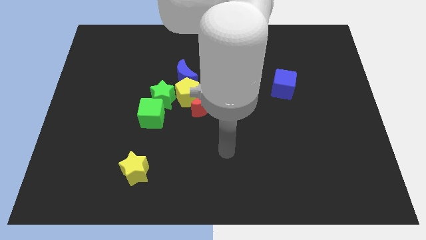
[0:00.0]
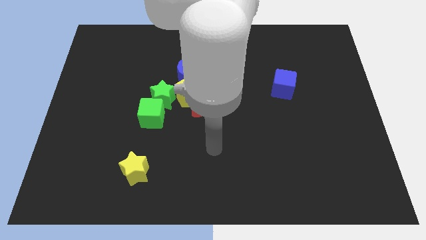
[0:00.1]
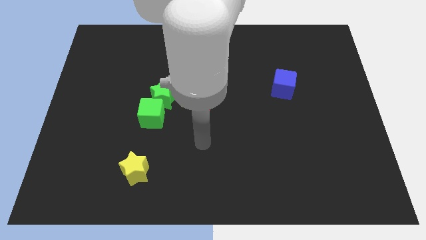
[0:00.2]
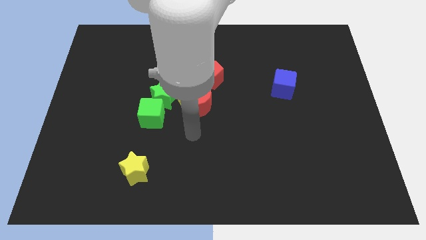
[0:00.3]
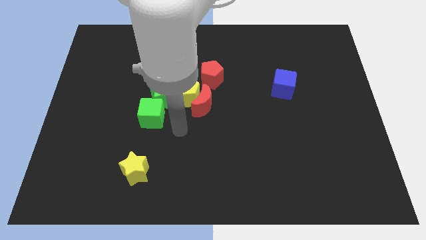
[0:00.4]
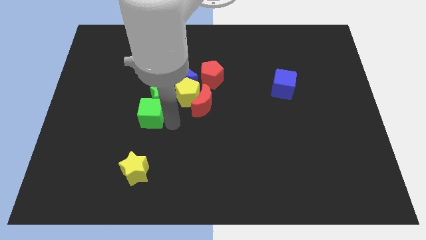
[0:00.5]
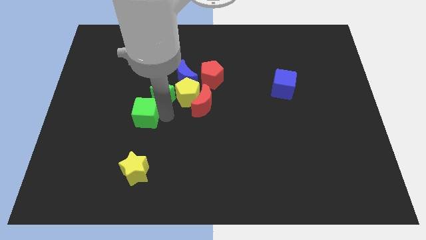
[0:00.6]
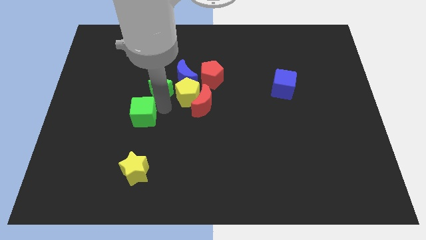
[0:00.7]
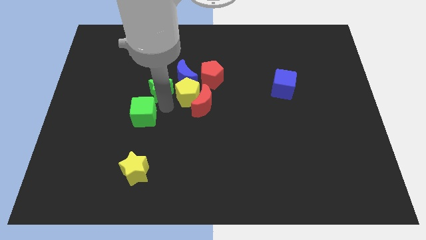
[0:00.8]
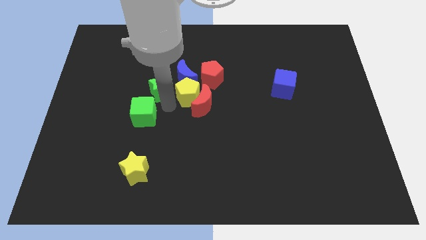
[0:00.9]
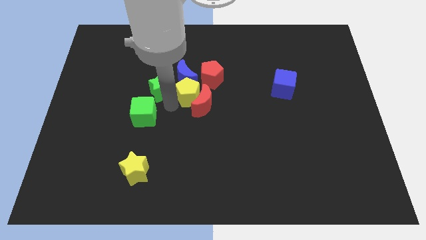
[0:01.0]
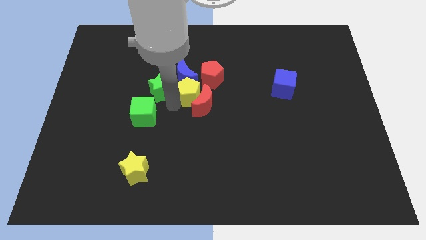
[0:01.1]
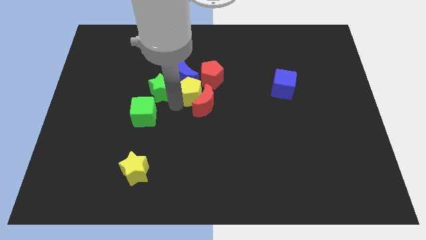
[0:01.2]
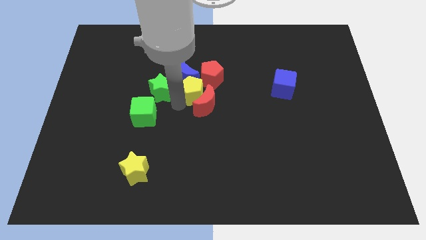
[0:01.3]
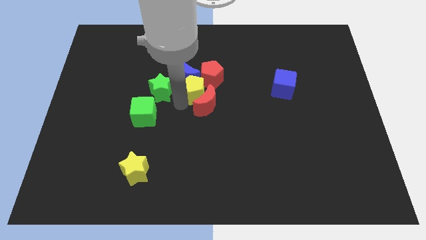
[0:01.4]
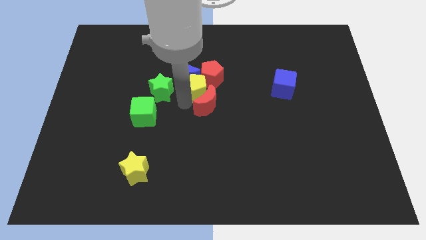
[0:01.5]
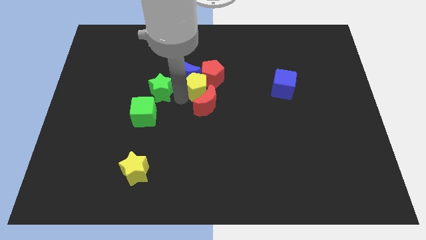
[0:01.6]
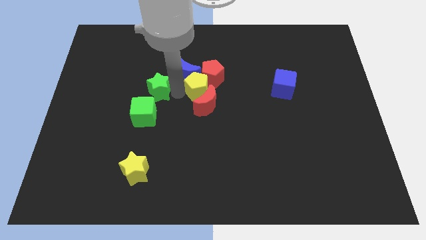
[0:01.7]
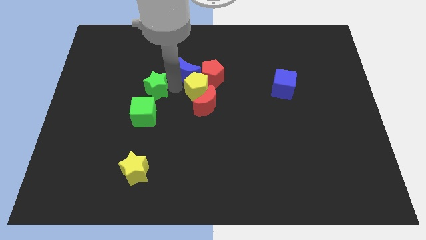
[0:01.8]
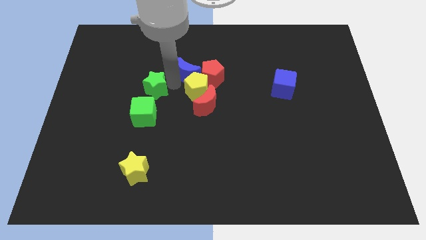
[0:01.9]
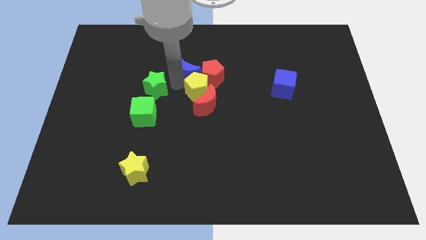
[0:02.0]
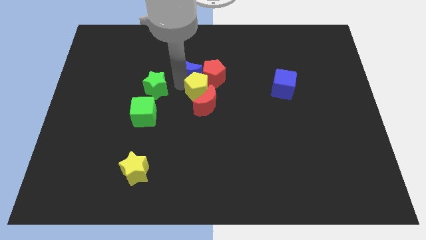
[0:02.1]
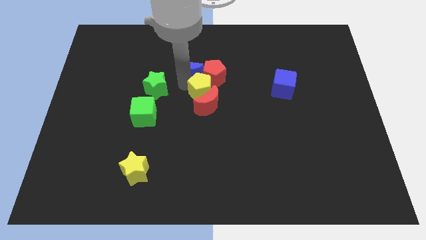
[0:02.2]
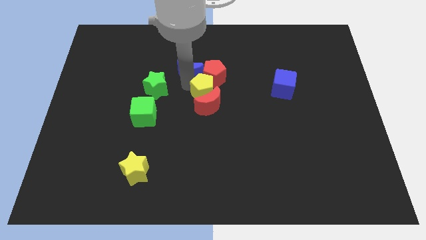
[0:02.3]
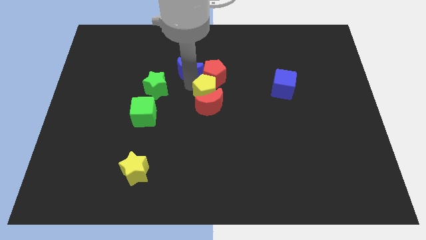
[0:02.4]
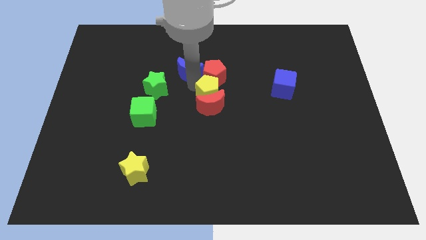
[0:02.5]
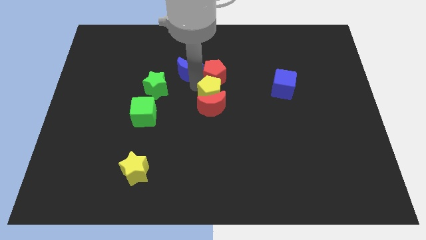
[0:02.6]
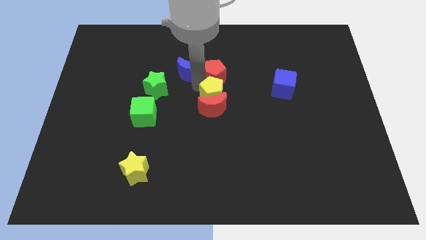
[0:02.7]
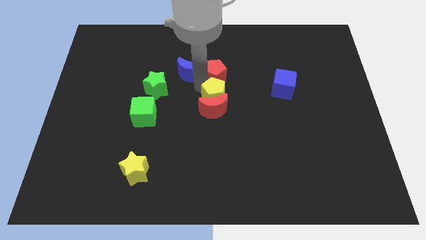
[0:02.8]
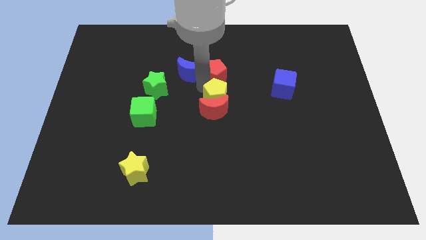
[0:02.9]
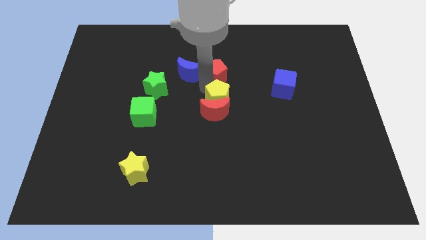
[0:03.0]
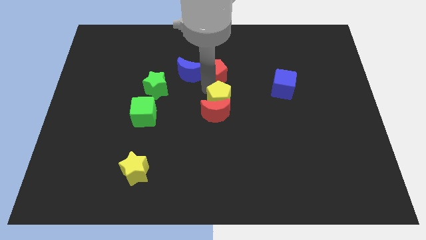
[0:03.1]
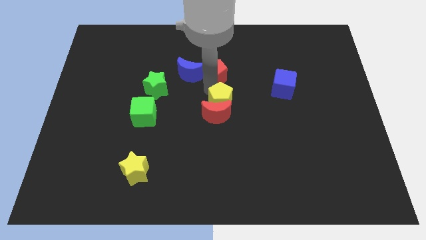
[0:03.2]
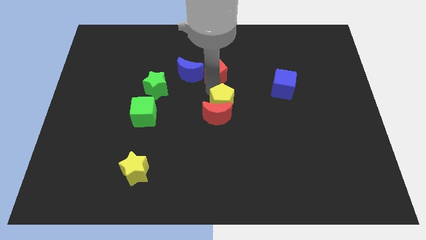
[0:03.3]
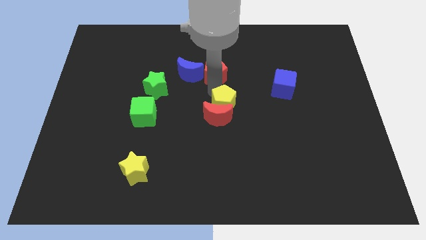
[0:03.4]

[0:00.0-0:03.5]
separate the yellow pentagon from the clump

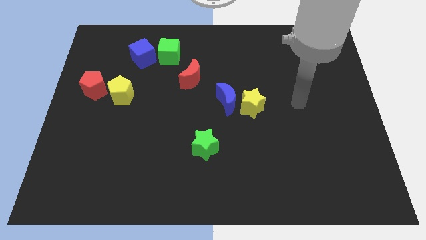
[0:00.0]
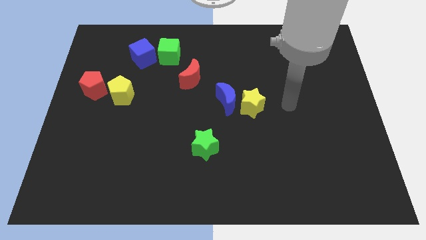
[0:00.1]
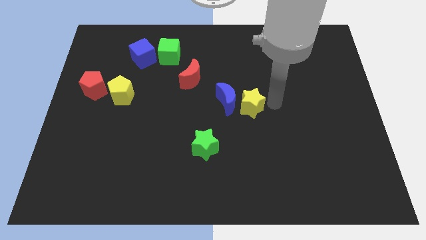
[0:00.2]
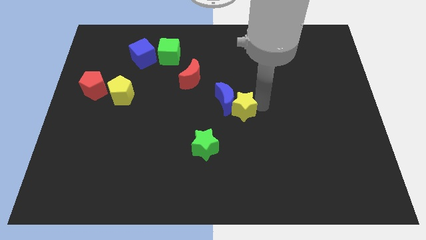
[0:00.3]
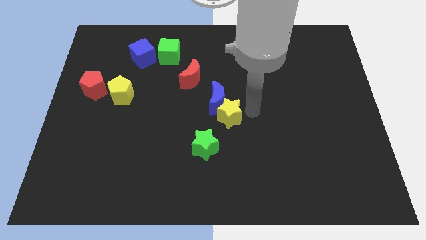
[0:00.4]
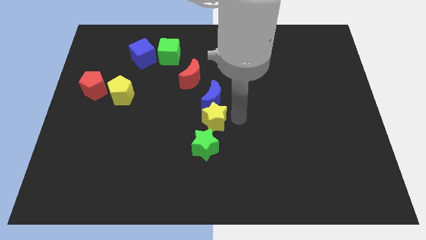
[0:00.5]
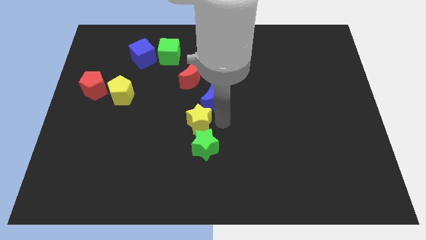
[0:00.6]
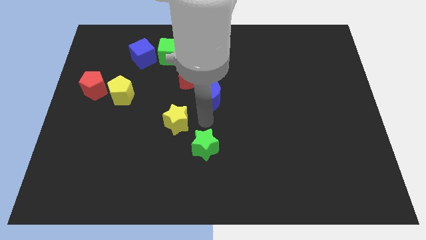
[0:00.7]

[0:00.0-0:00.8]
move the blue moon away from the yellow star

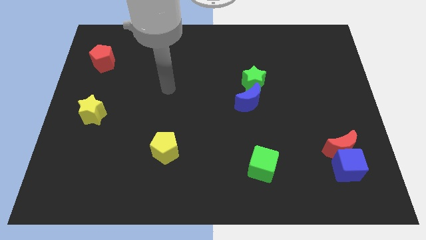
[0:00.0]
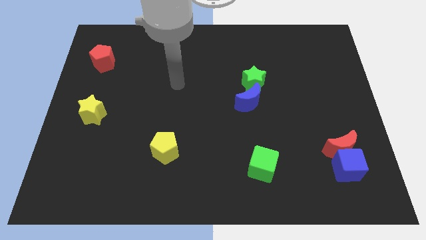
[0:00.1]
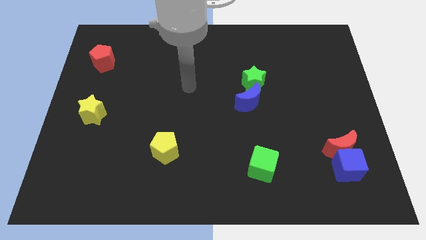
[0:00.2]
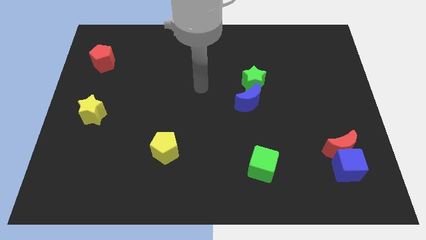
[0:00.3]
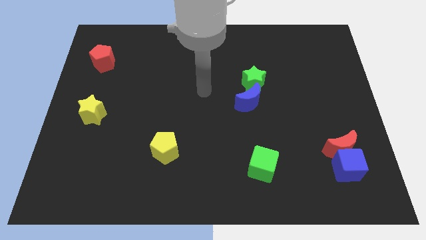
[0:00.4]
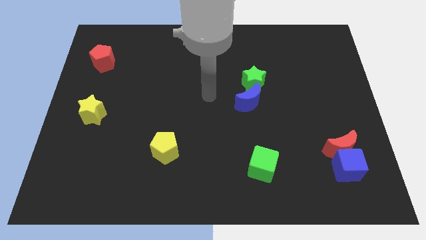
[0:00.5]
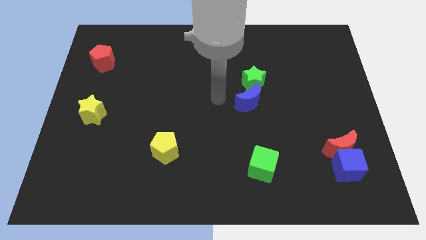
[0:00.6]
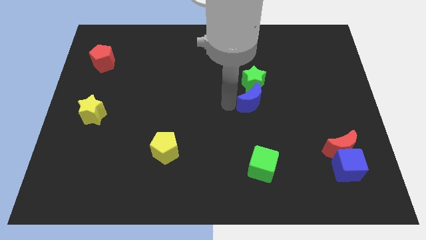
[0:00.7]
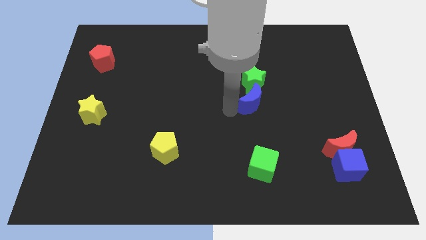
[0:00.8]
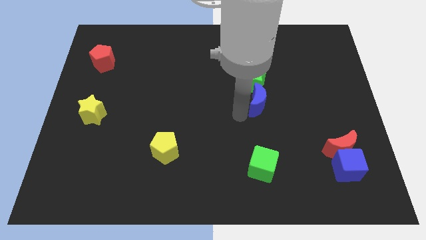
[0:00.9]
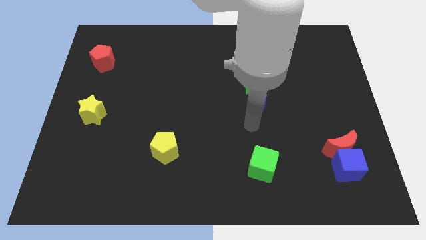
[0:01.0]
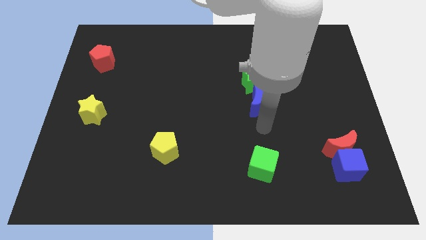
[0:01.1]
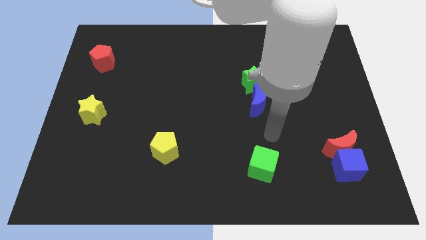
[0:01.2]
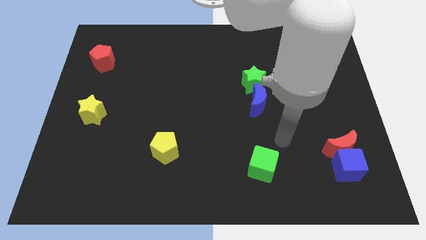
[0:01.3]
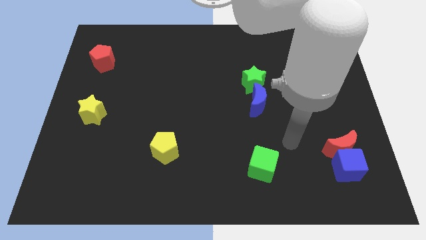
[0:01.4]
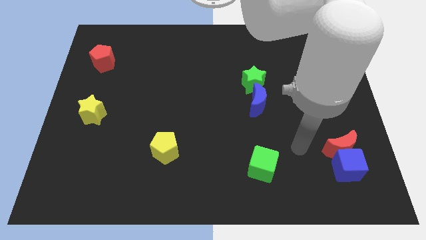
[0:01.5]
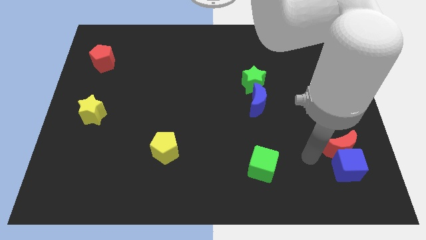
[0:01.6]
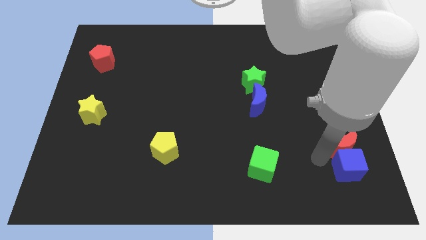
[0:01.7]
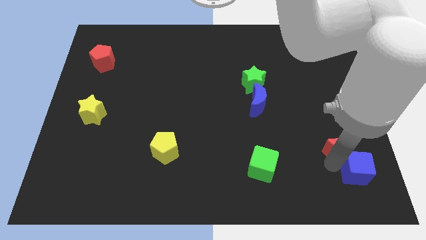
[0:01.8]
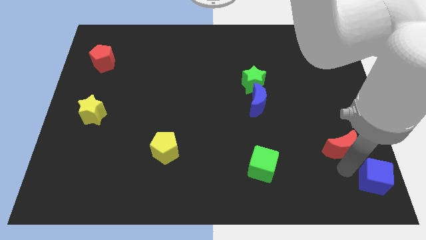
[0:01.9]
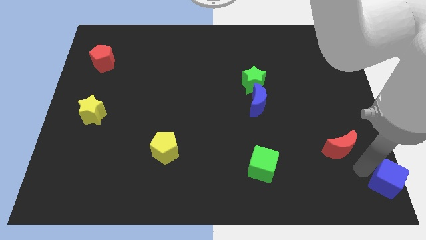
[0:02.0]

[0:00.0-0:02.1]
separate the red moon from the blue cube

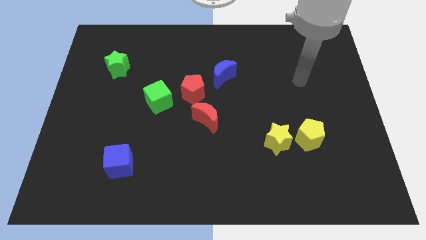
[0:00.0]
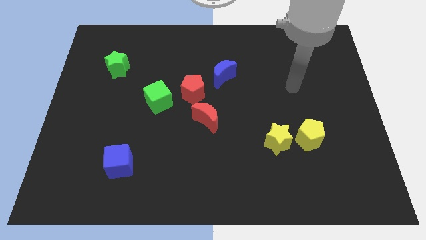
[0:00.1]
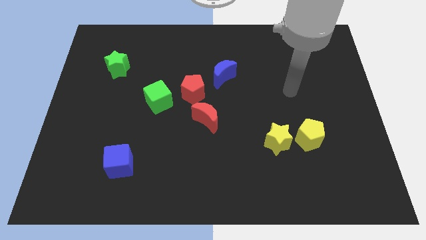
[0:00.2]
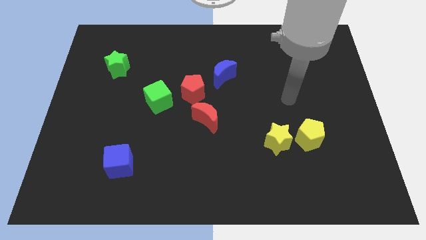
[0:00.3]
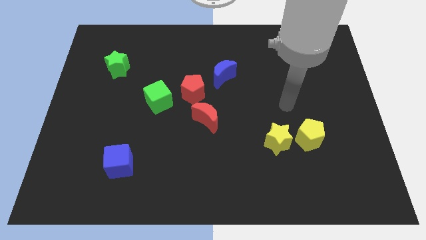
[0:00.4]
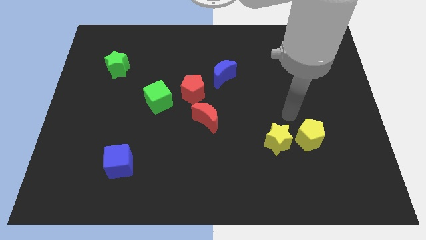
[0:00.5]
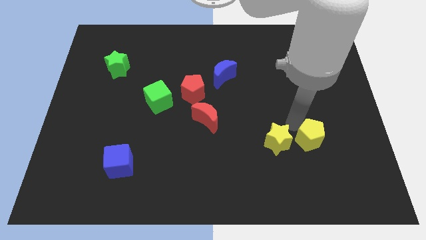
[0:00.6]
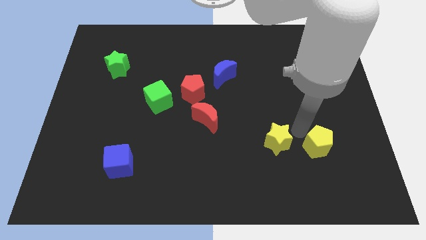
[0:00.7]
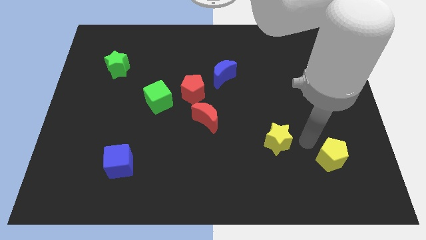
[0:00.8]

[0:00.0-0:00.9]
separate the yellow star from the yellow pentagon

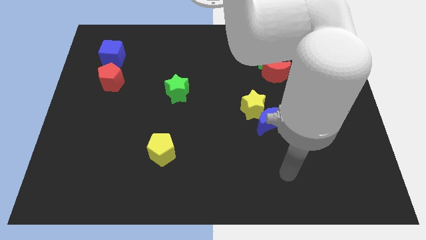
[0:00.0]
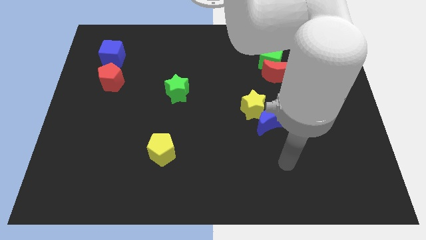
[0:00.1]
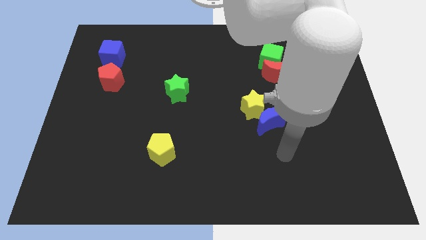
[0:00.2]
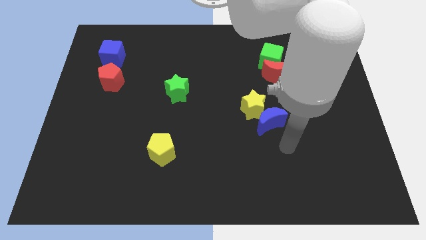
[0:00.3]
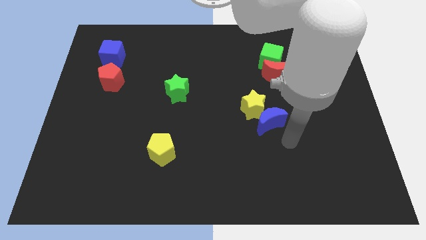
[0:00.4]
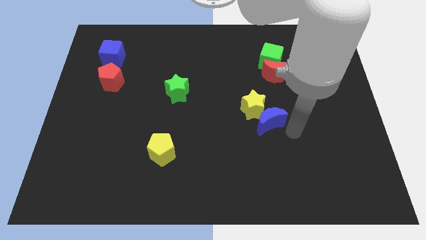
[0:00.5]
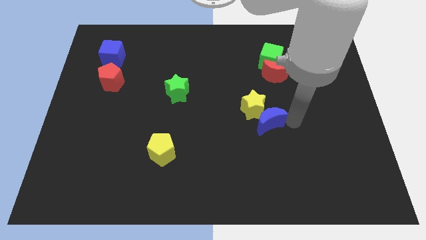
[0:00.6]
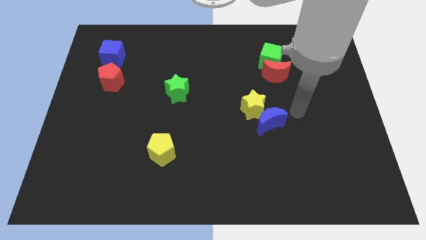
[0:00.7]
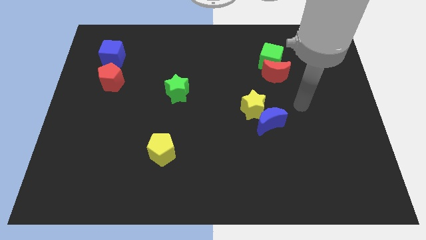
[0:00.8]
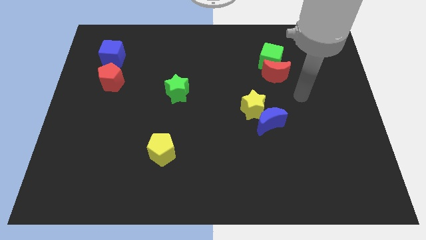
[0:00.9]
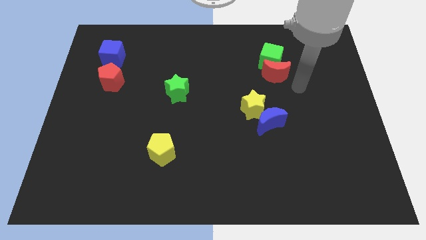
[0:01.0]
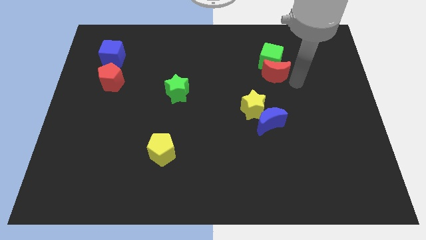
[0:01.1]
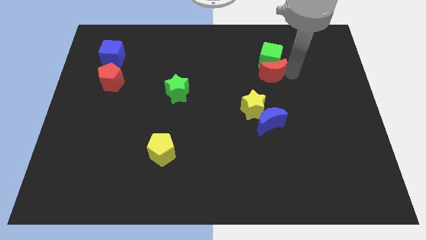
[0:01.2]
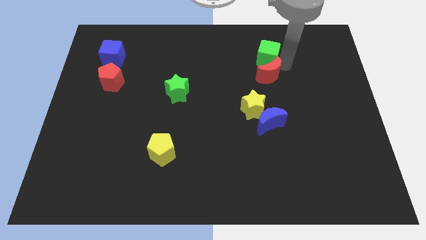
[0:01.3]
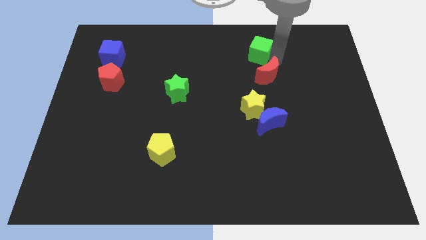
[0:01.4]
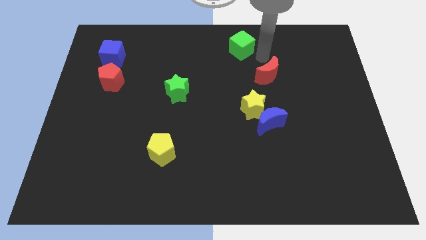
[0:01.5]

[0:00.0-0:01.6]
move the red moon away from the green cube

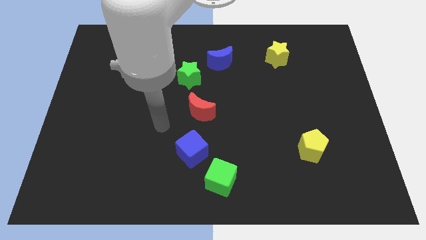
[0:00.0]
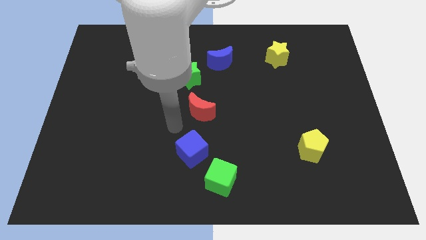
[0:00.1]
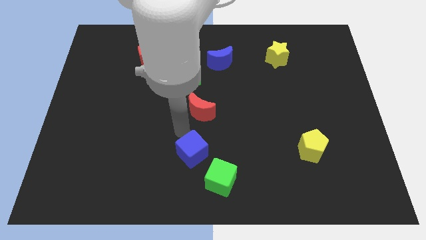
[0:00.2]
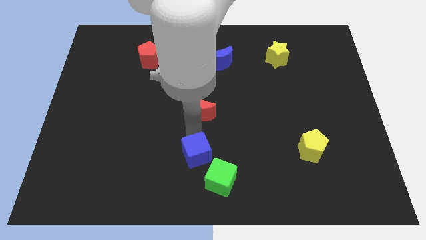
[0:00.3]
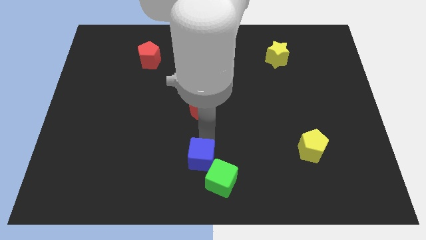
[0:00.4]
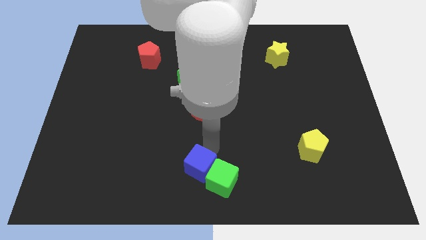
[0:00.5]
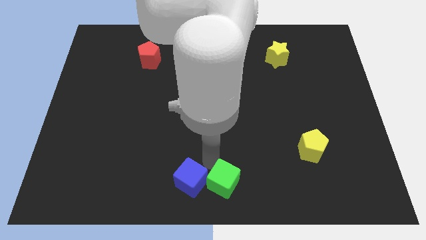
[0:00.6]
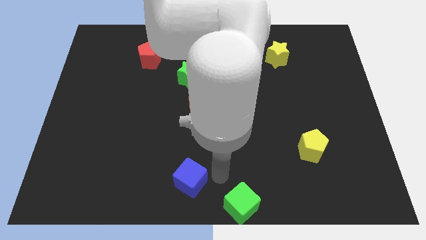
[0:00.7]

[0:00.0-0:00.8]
separate the blue cube from the green cube
